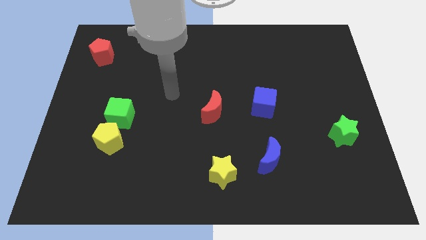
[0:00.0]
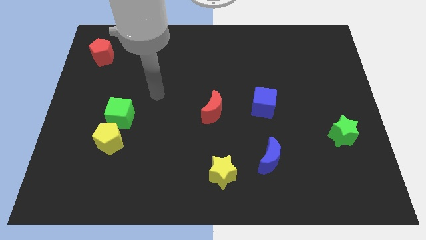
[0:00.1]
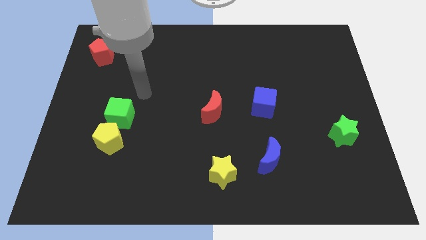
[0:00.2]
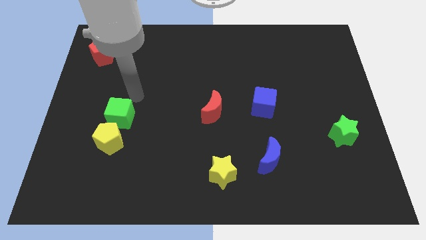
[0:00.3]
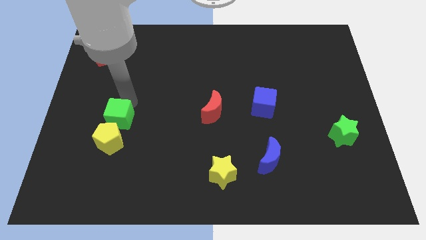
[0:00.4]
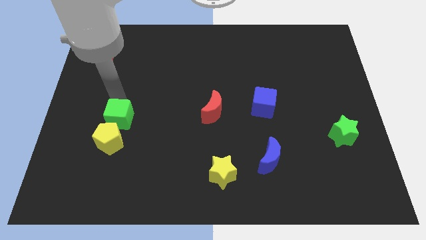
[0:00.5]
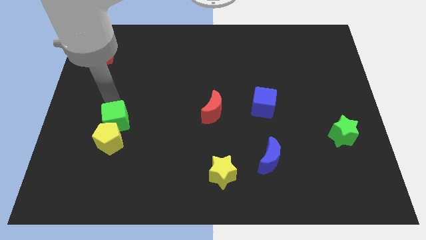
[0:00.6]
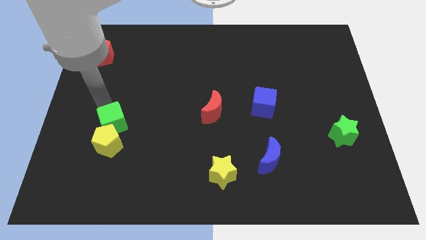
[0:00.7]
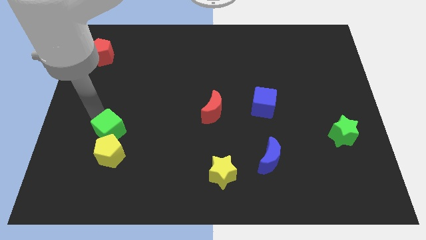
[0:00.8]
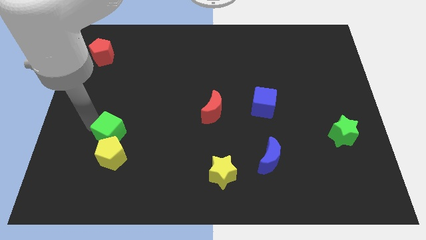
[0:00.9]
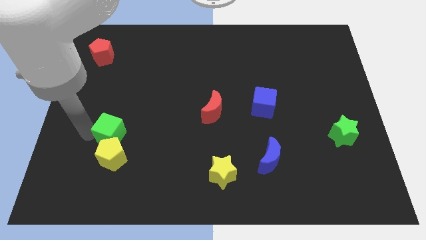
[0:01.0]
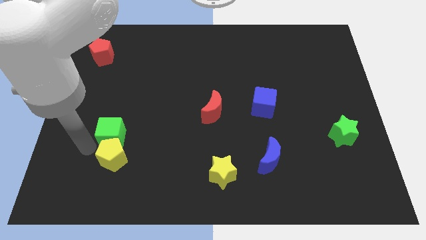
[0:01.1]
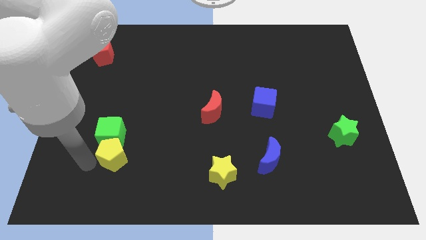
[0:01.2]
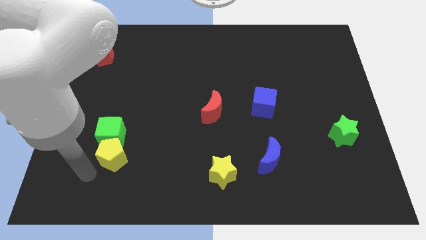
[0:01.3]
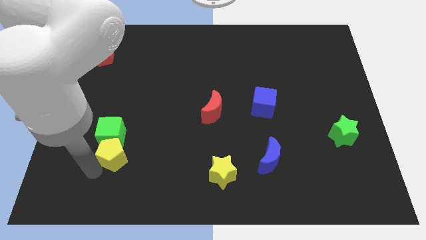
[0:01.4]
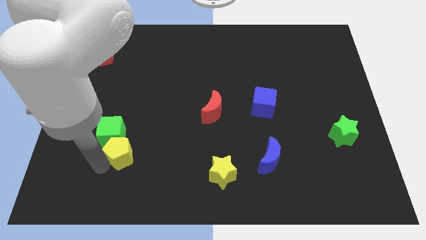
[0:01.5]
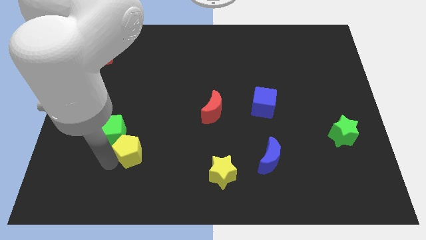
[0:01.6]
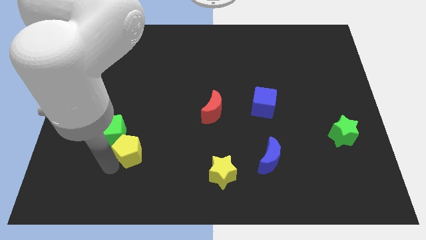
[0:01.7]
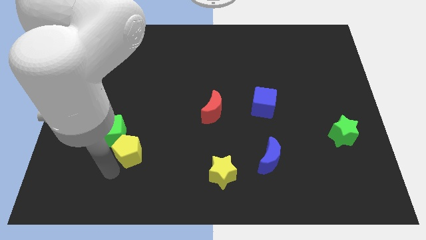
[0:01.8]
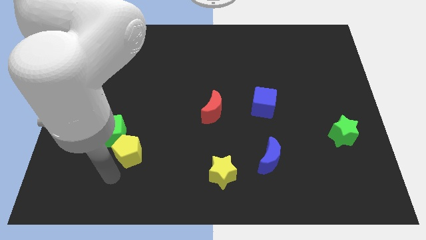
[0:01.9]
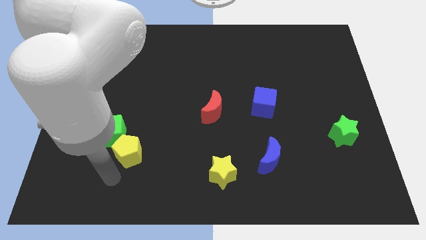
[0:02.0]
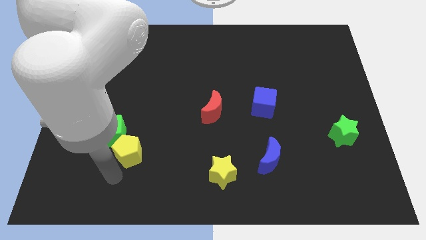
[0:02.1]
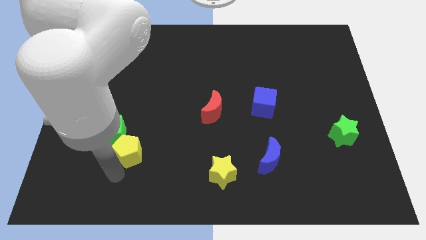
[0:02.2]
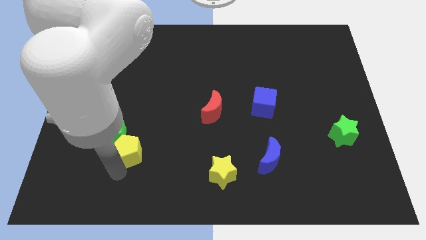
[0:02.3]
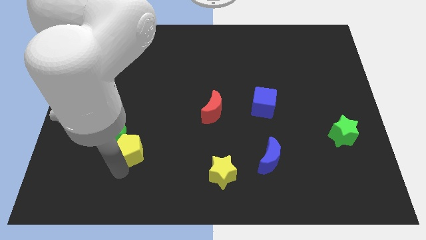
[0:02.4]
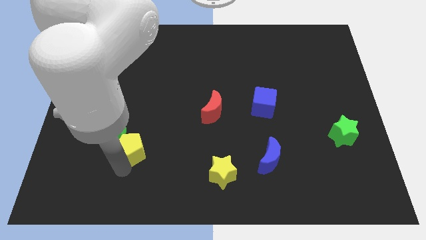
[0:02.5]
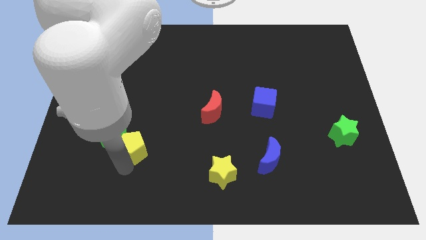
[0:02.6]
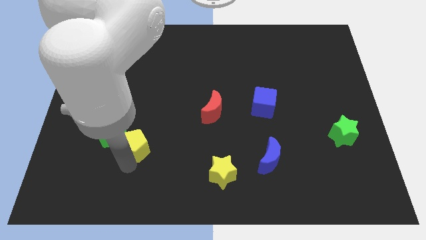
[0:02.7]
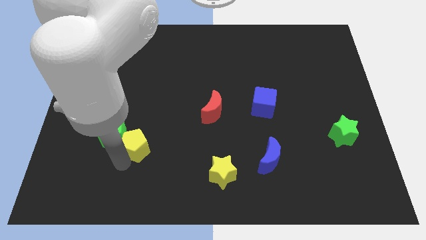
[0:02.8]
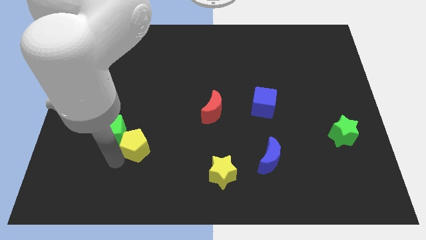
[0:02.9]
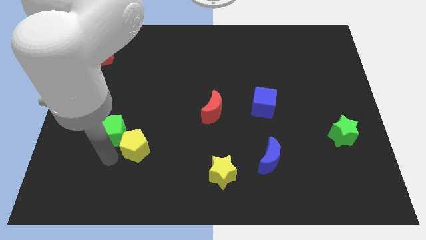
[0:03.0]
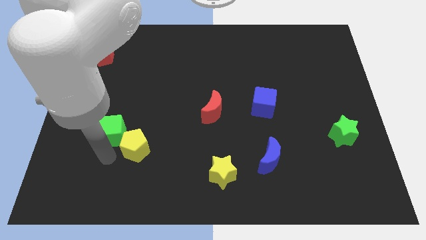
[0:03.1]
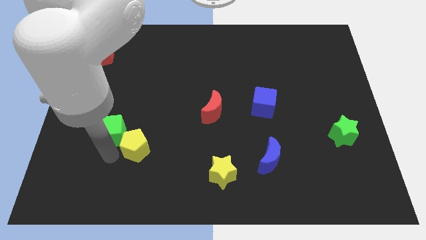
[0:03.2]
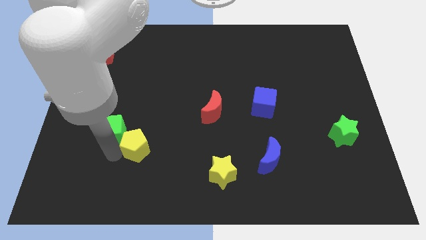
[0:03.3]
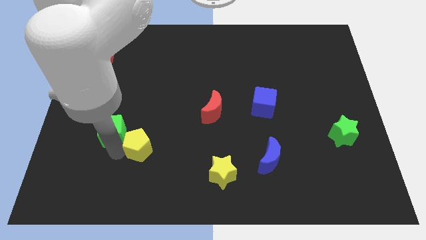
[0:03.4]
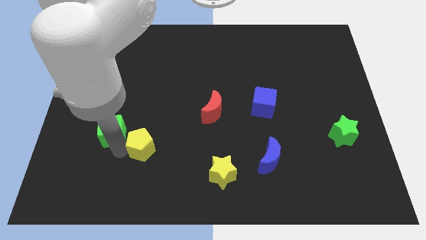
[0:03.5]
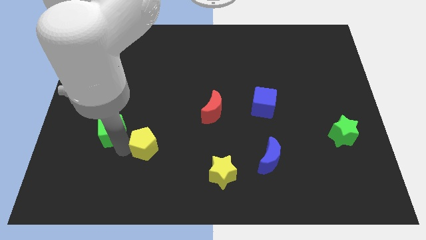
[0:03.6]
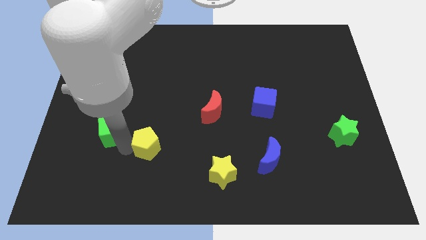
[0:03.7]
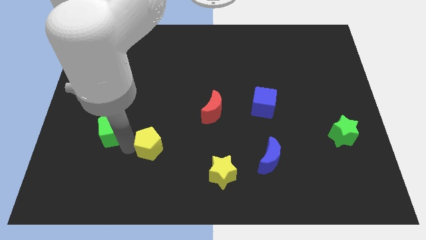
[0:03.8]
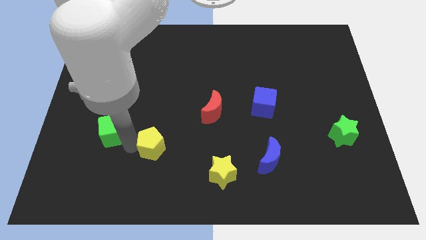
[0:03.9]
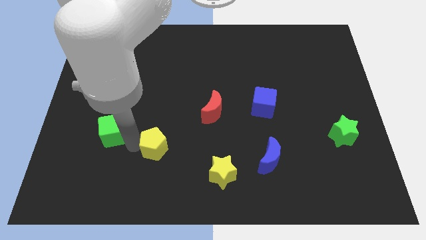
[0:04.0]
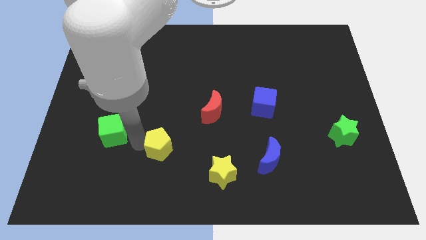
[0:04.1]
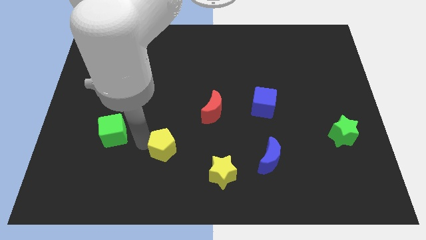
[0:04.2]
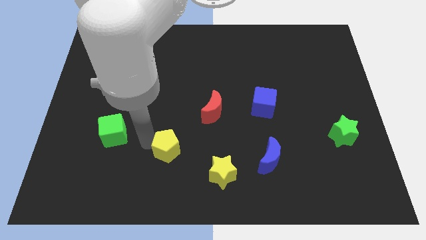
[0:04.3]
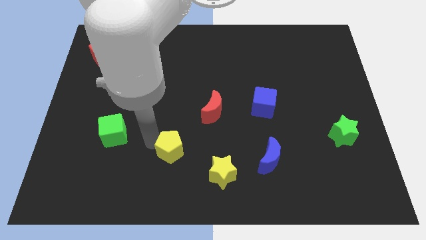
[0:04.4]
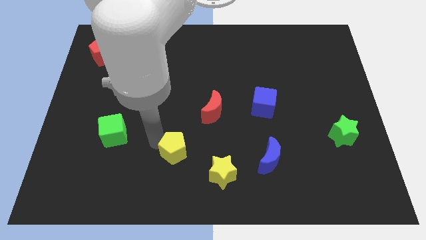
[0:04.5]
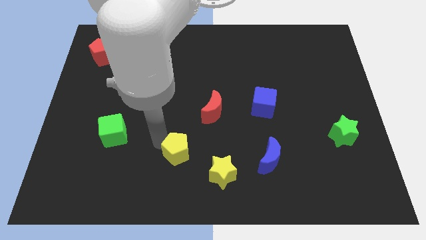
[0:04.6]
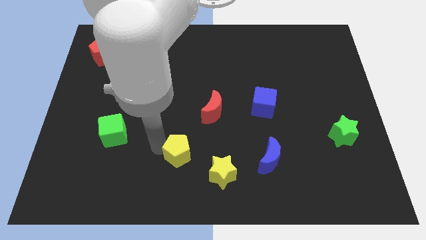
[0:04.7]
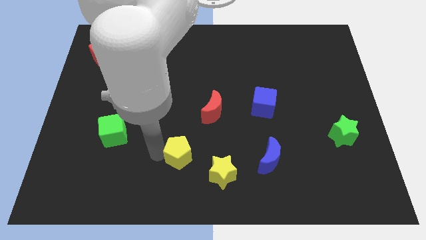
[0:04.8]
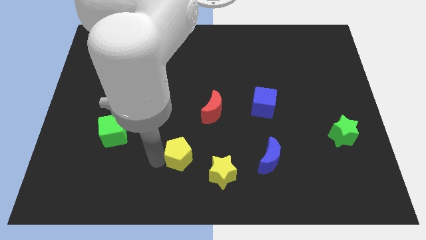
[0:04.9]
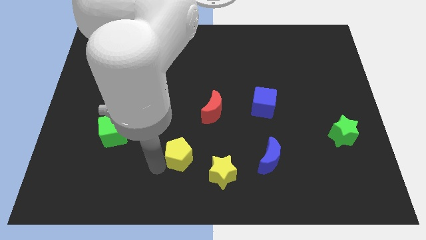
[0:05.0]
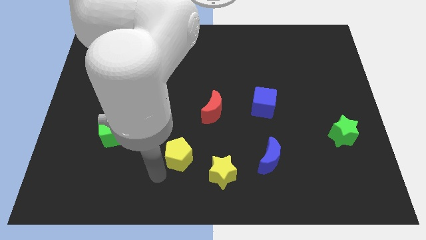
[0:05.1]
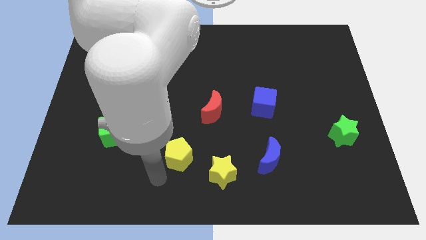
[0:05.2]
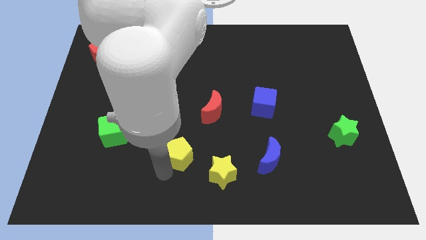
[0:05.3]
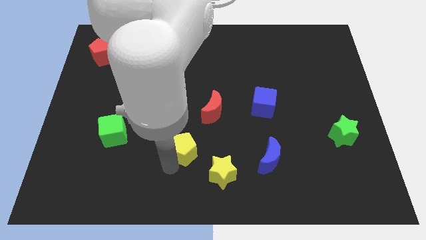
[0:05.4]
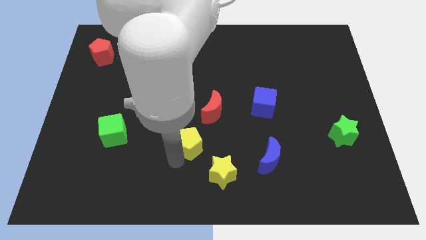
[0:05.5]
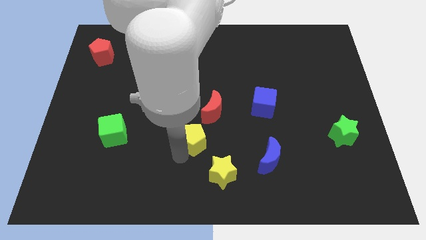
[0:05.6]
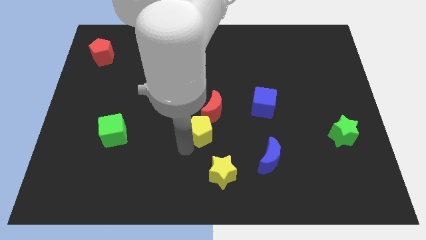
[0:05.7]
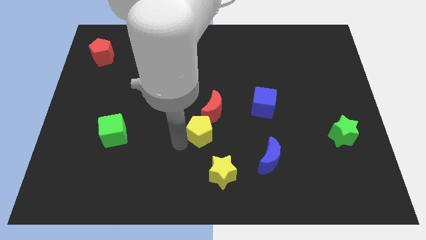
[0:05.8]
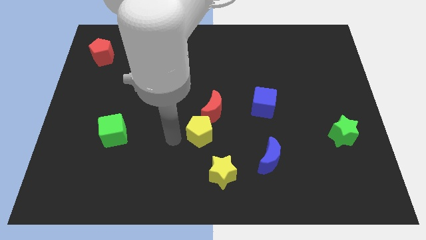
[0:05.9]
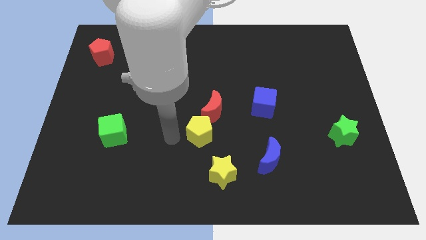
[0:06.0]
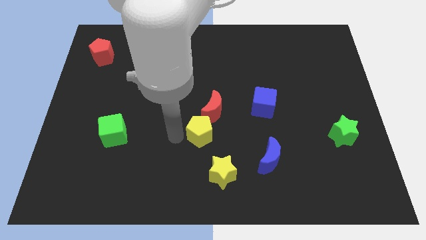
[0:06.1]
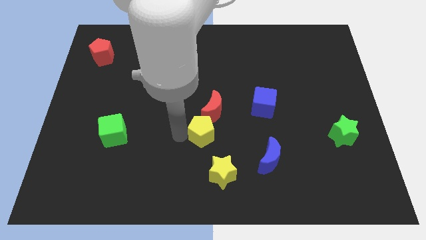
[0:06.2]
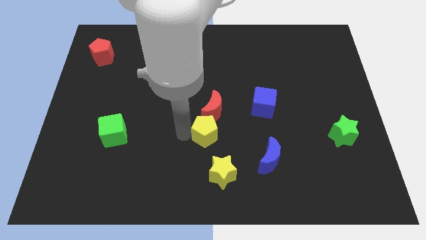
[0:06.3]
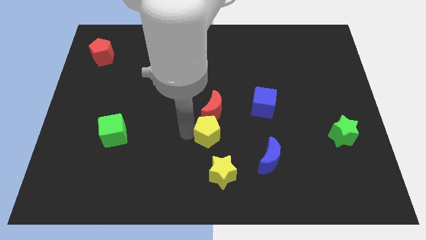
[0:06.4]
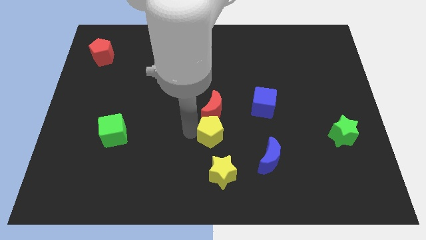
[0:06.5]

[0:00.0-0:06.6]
move the yellow pentagon diagonally down and to the right of the red moon

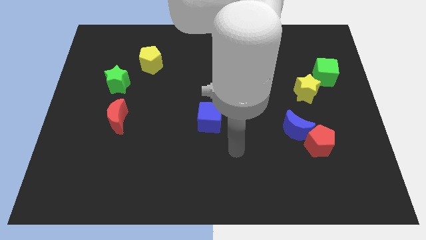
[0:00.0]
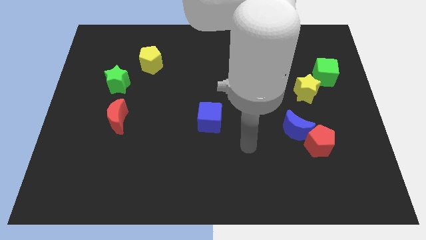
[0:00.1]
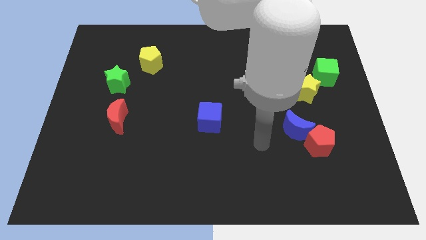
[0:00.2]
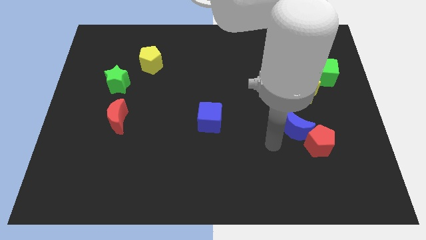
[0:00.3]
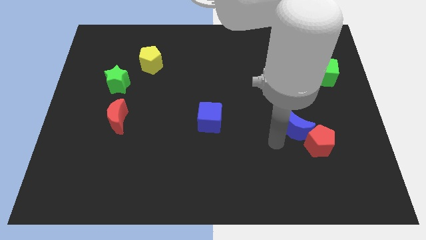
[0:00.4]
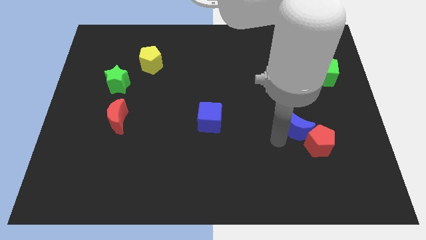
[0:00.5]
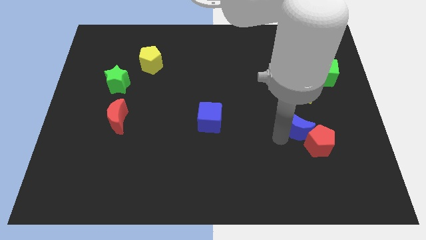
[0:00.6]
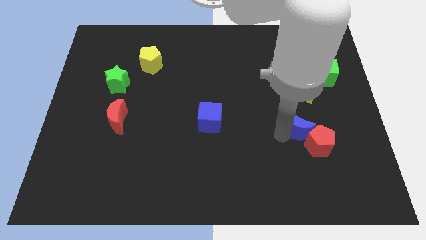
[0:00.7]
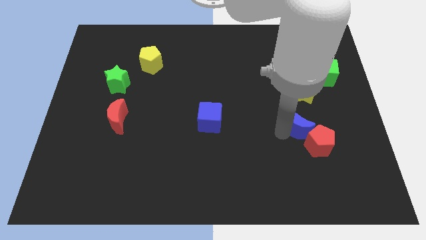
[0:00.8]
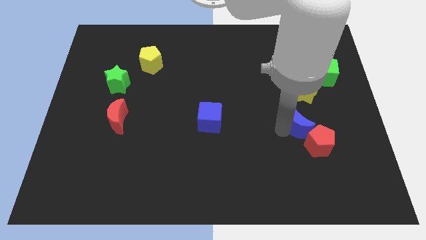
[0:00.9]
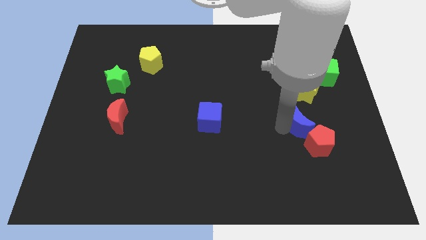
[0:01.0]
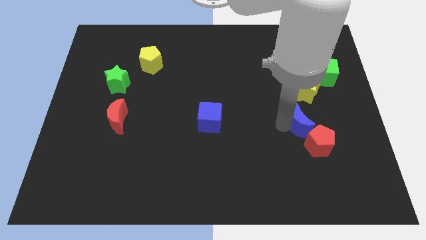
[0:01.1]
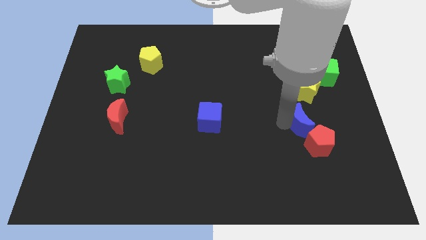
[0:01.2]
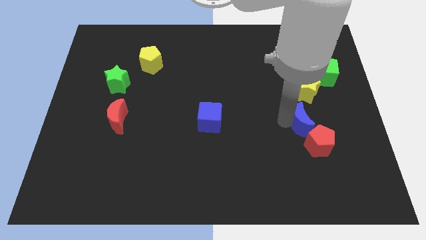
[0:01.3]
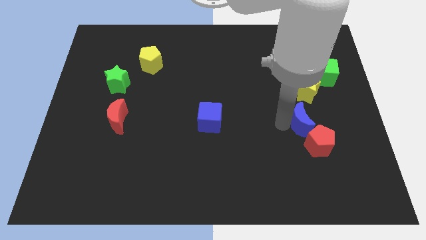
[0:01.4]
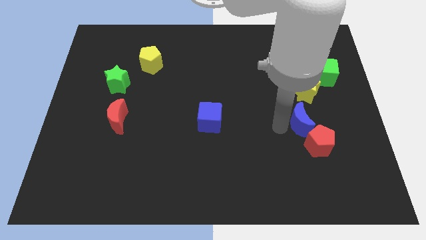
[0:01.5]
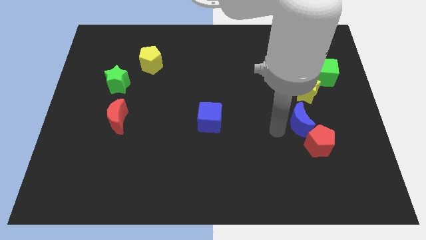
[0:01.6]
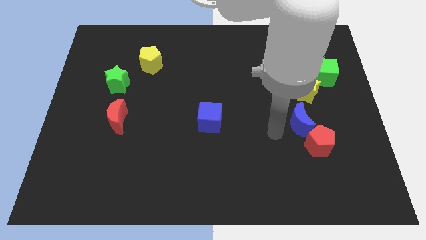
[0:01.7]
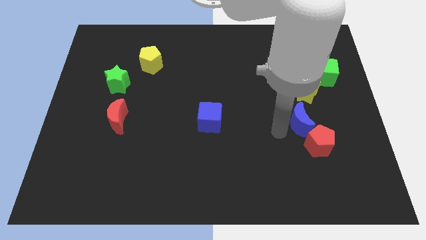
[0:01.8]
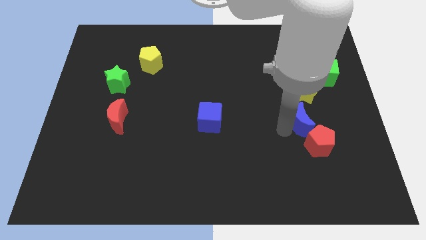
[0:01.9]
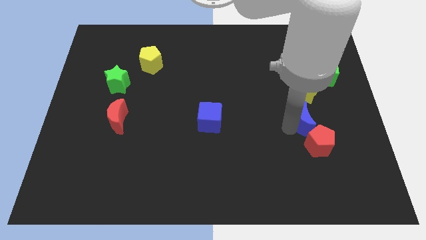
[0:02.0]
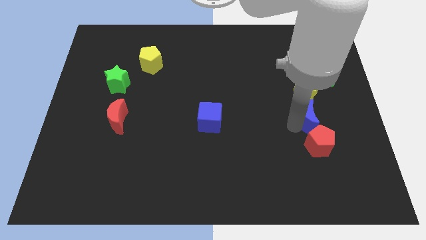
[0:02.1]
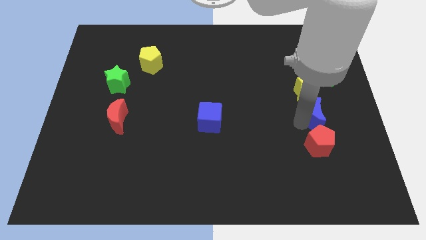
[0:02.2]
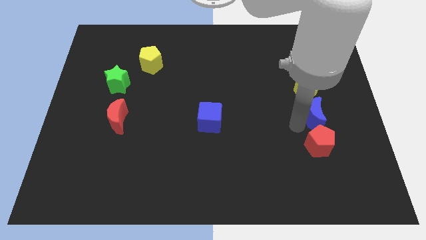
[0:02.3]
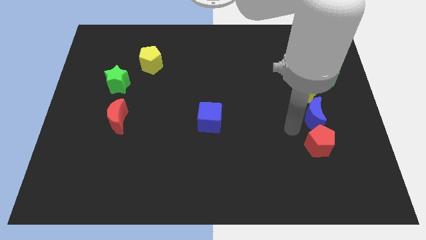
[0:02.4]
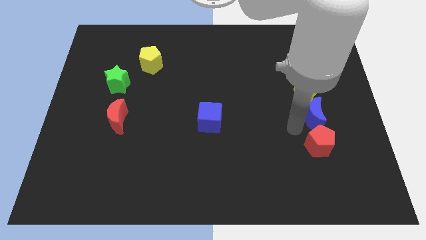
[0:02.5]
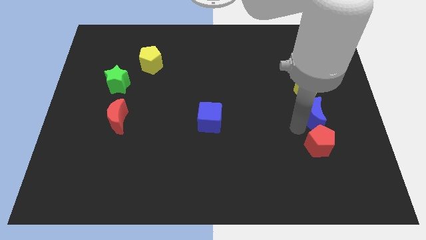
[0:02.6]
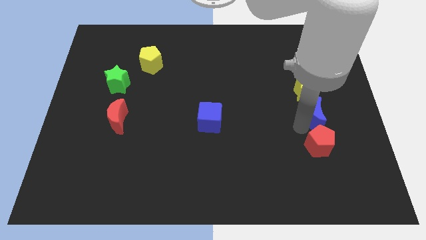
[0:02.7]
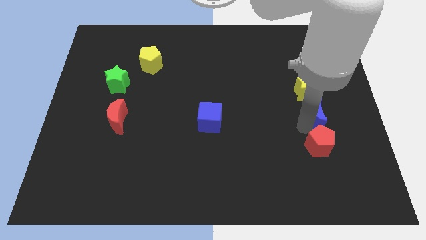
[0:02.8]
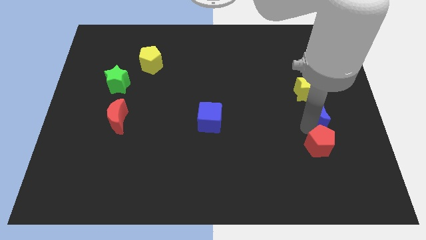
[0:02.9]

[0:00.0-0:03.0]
push the blue moon to the bottom side of the green cube
